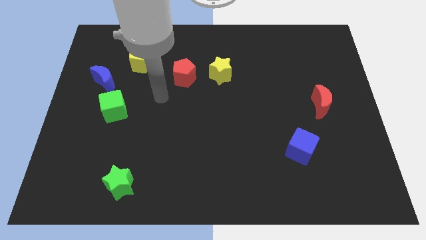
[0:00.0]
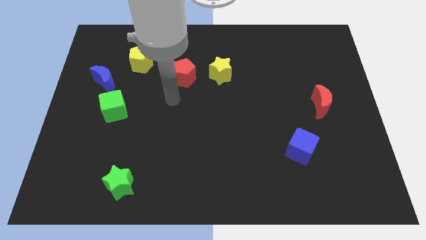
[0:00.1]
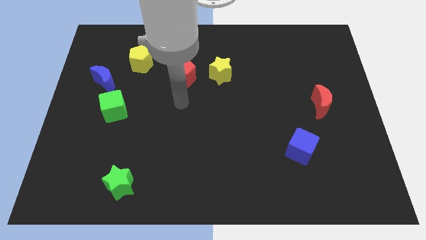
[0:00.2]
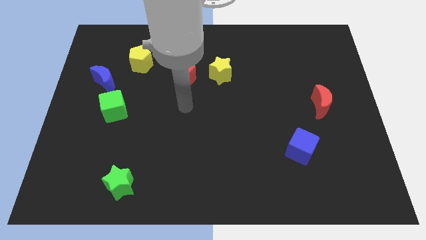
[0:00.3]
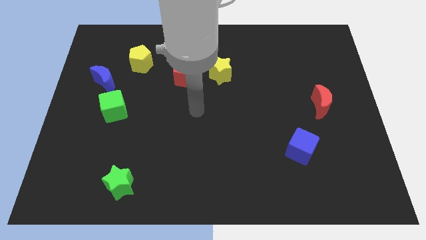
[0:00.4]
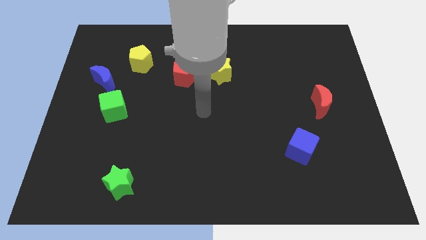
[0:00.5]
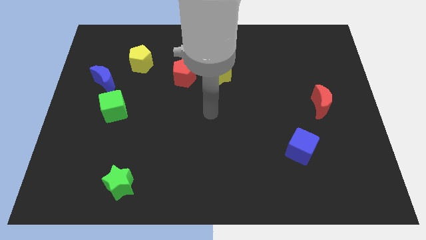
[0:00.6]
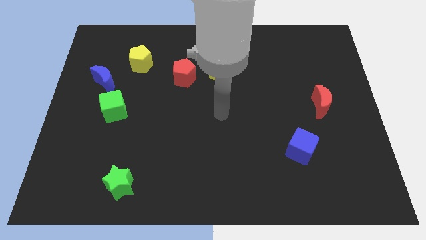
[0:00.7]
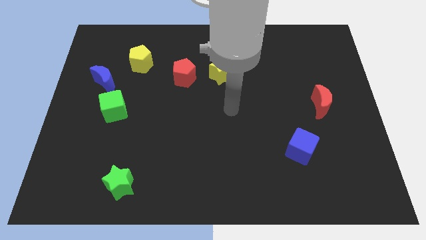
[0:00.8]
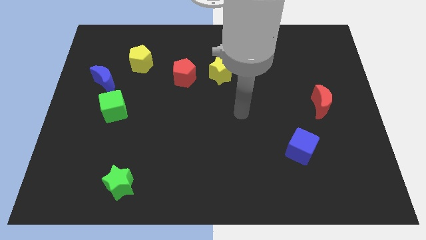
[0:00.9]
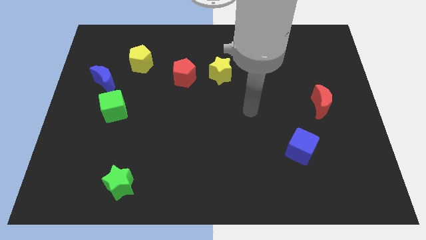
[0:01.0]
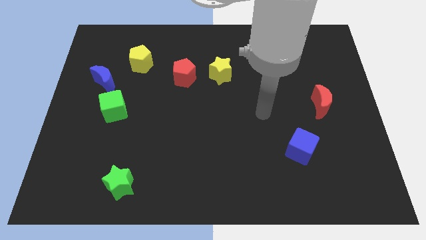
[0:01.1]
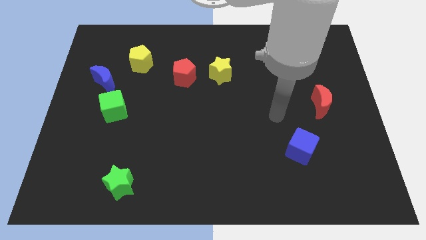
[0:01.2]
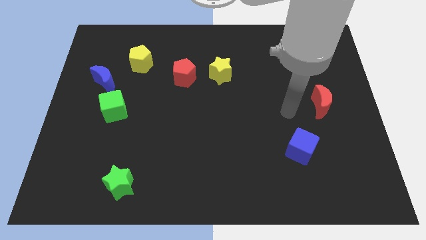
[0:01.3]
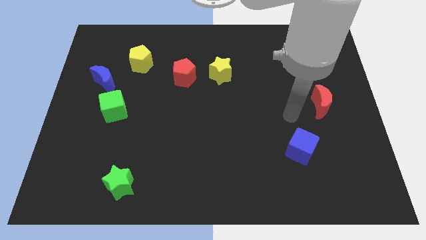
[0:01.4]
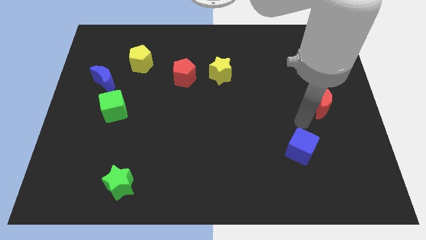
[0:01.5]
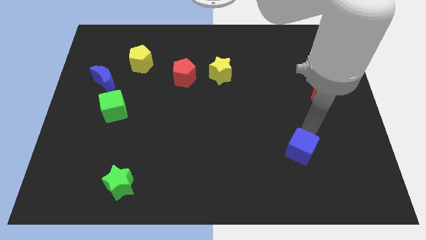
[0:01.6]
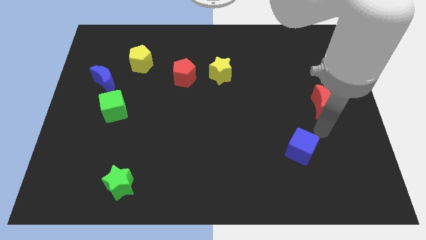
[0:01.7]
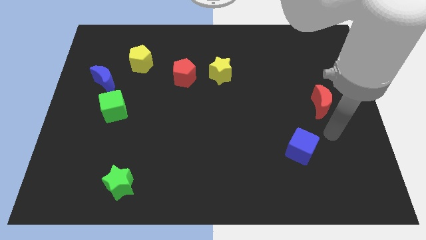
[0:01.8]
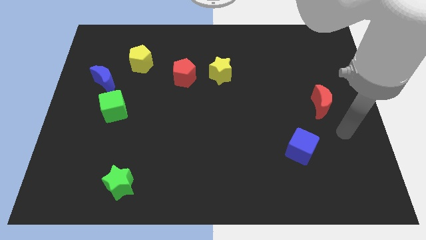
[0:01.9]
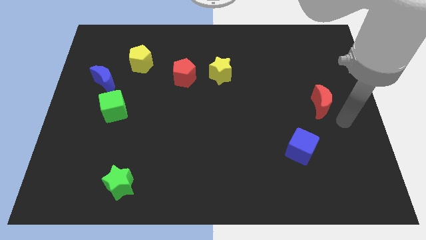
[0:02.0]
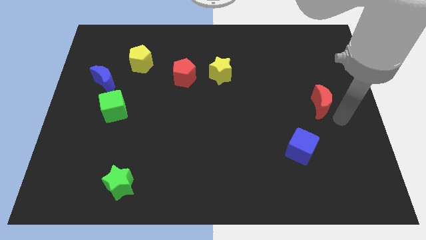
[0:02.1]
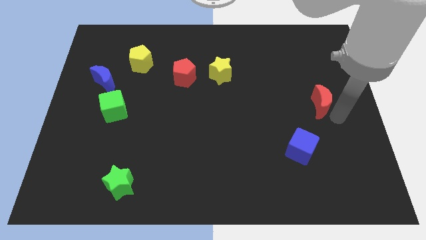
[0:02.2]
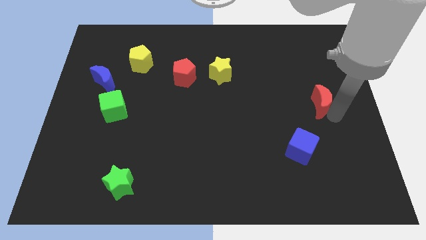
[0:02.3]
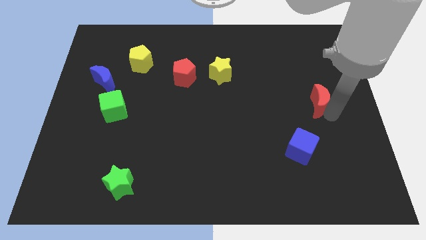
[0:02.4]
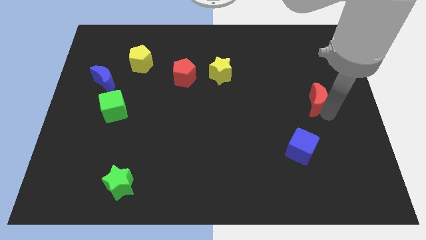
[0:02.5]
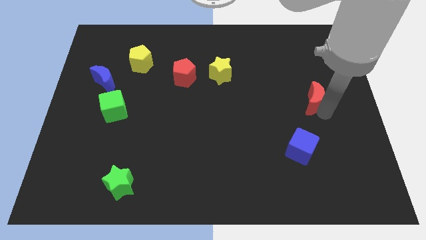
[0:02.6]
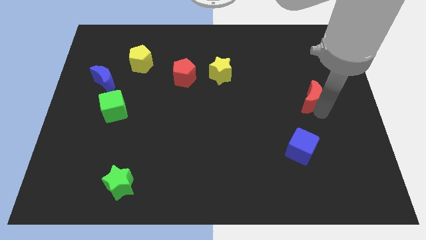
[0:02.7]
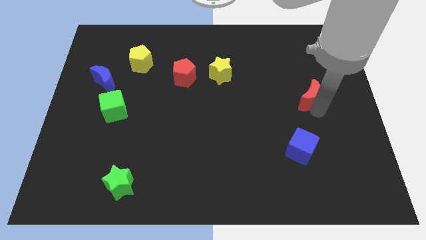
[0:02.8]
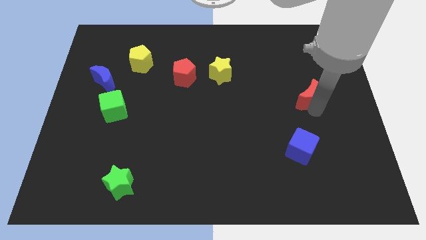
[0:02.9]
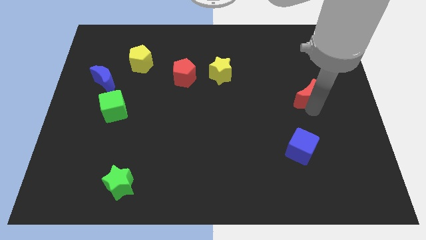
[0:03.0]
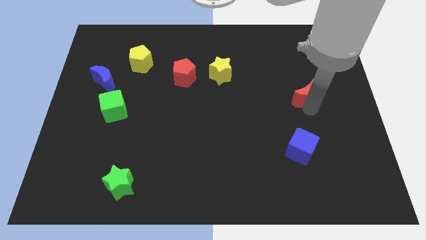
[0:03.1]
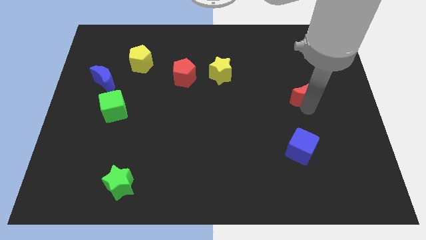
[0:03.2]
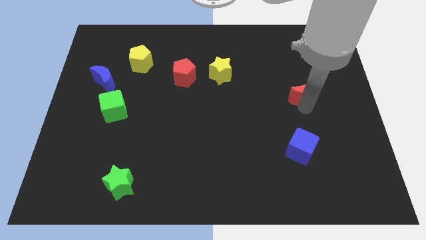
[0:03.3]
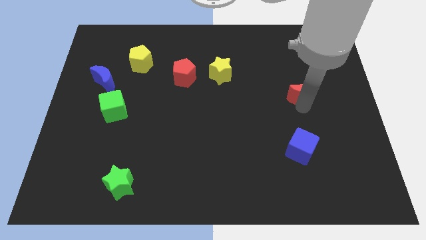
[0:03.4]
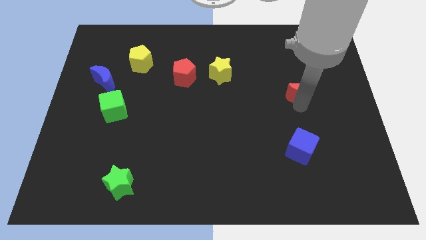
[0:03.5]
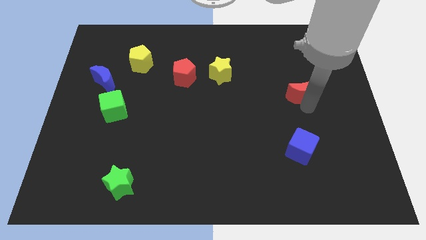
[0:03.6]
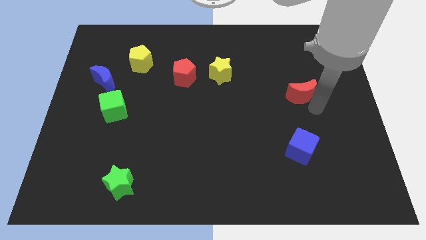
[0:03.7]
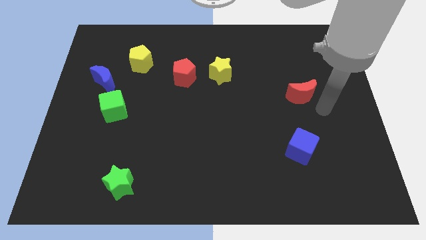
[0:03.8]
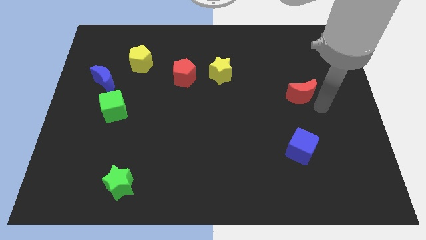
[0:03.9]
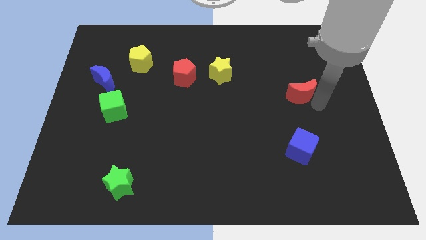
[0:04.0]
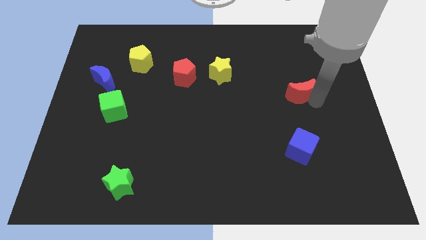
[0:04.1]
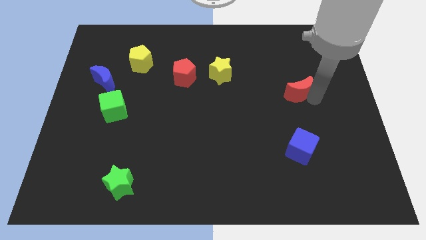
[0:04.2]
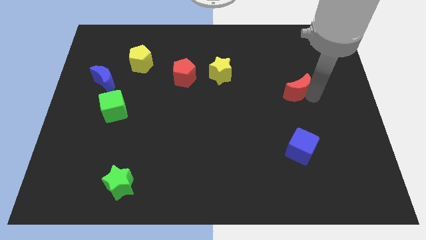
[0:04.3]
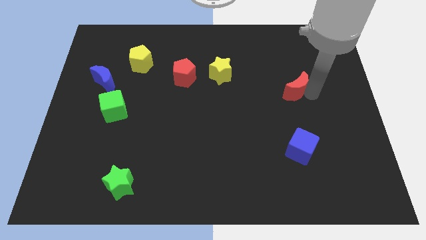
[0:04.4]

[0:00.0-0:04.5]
slightly move the red moon upwards and to the left diagonally

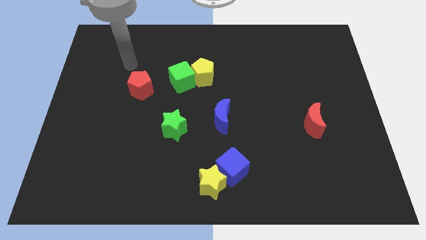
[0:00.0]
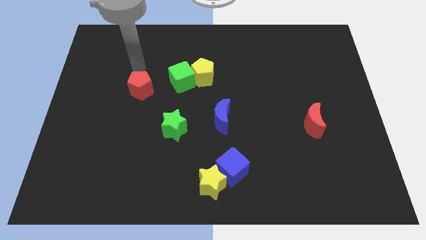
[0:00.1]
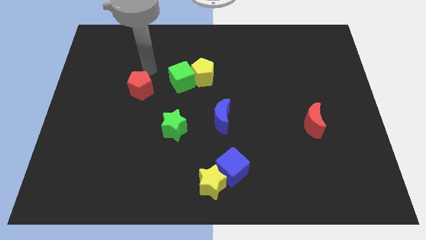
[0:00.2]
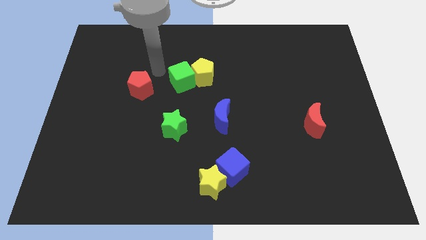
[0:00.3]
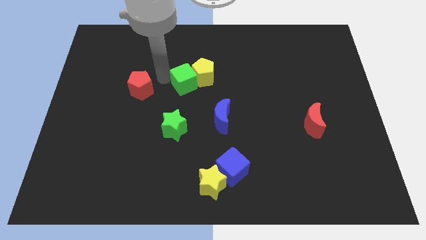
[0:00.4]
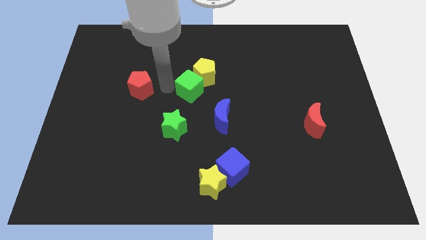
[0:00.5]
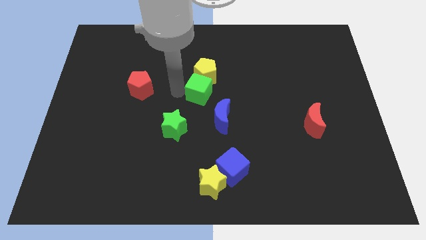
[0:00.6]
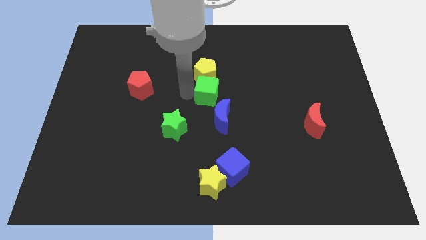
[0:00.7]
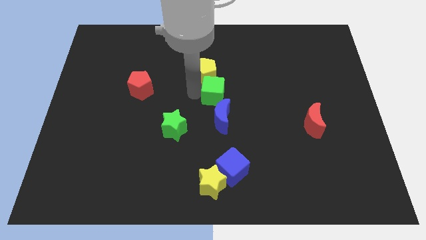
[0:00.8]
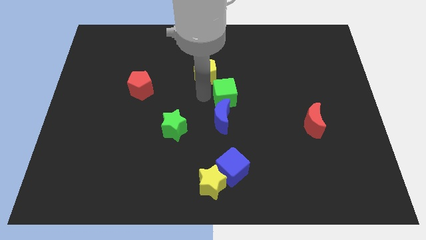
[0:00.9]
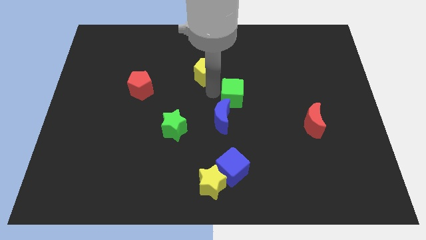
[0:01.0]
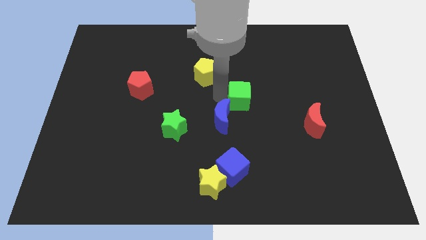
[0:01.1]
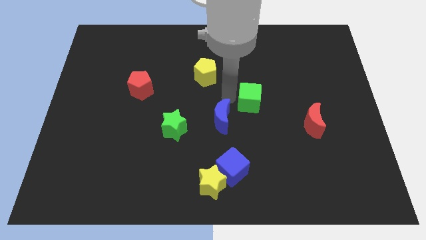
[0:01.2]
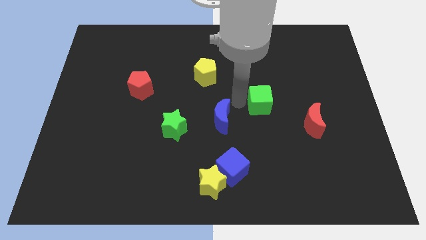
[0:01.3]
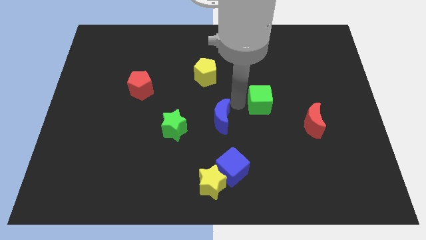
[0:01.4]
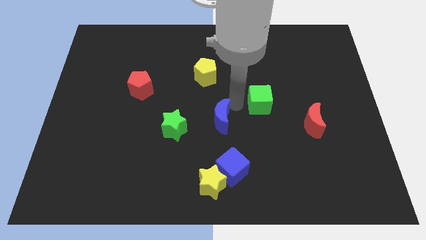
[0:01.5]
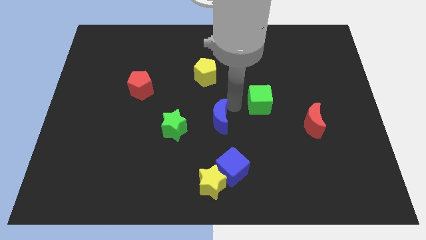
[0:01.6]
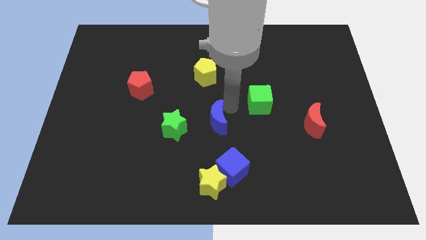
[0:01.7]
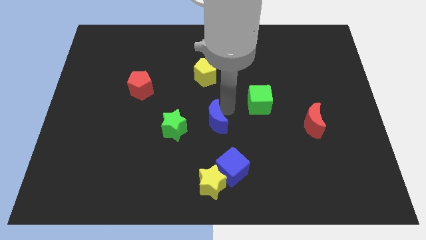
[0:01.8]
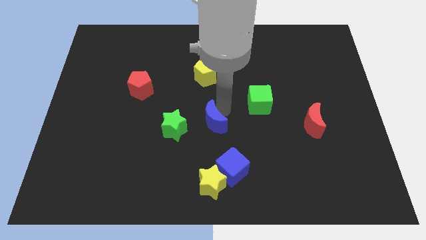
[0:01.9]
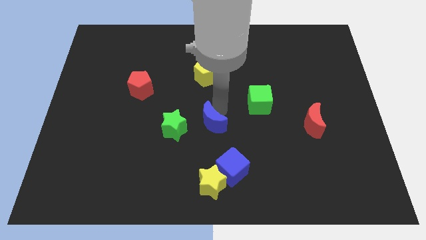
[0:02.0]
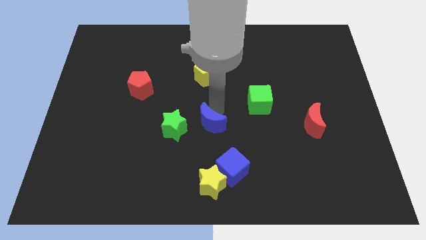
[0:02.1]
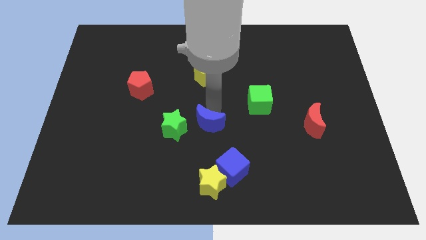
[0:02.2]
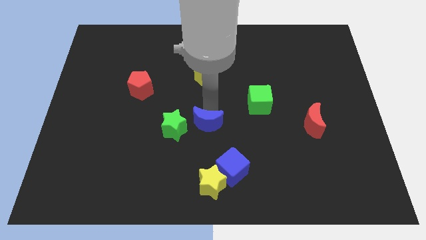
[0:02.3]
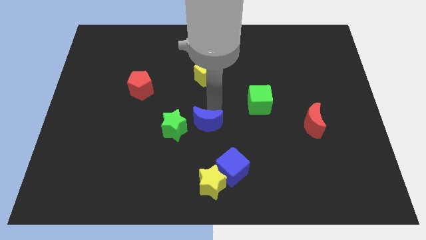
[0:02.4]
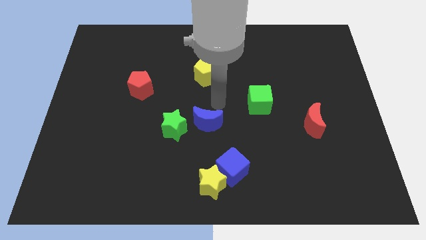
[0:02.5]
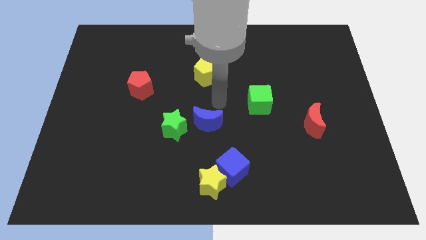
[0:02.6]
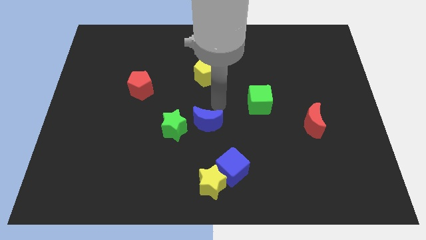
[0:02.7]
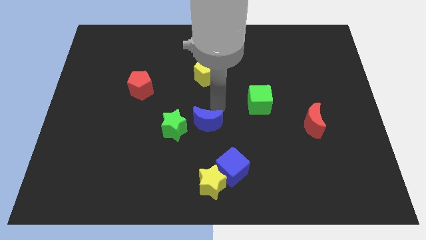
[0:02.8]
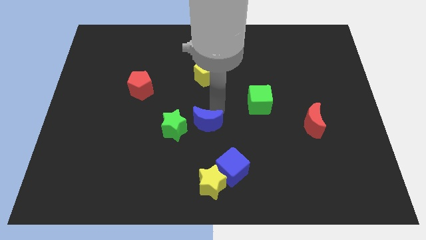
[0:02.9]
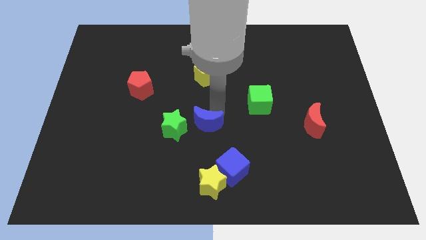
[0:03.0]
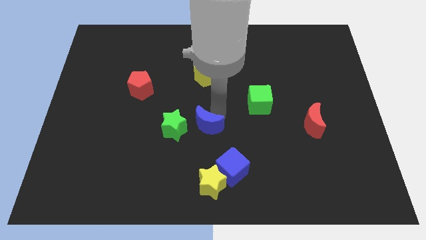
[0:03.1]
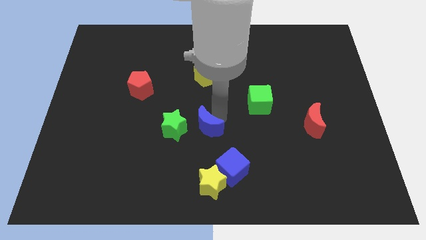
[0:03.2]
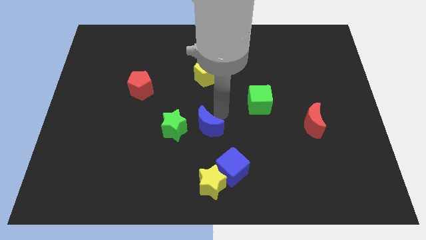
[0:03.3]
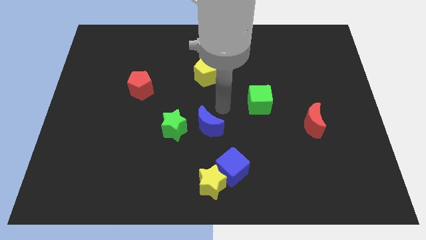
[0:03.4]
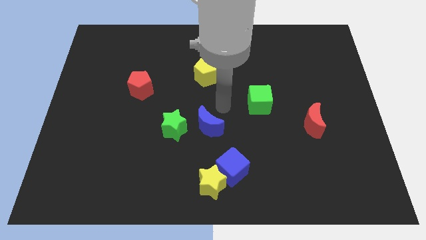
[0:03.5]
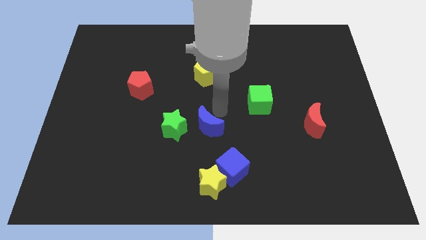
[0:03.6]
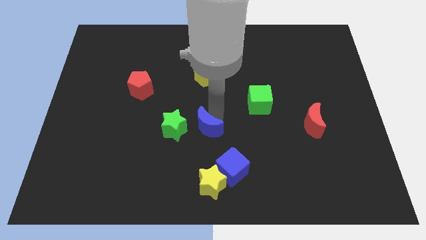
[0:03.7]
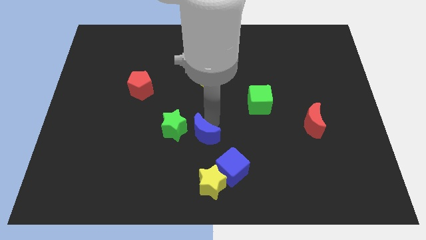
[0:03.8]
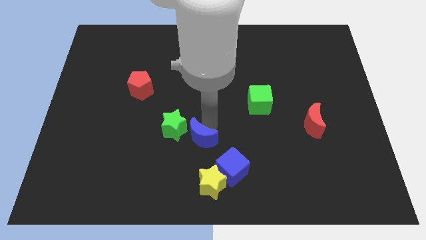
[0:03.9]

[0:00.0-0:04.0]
slightly slide the blue moon diagonally downwards and to the left
